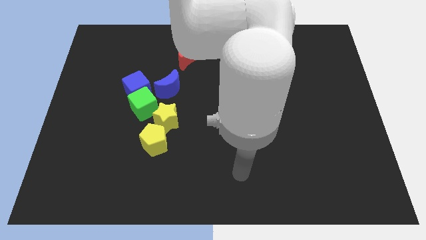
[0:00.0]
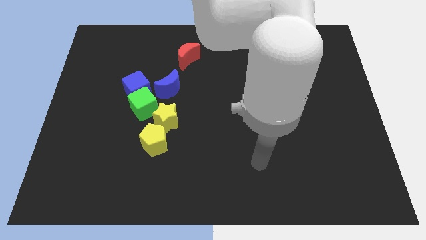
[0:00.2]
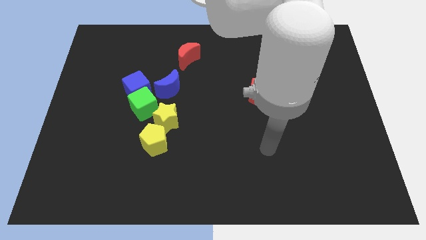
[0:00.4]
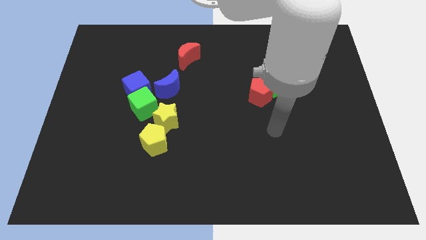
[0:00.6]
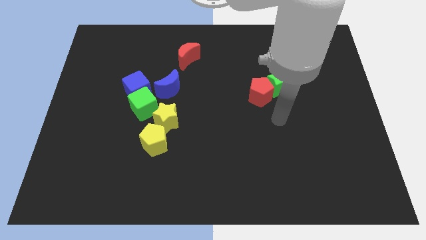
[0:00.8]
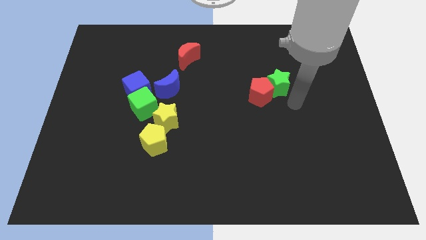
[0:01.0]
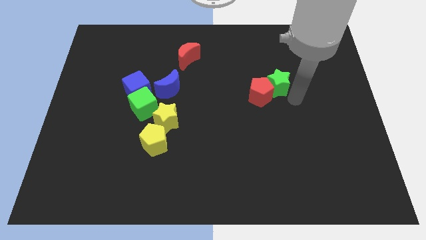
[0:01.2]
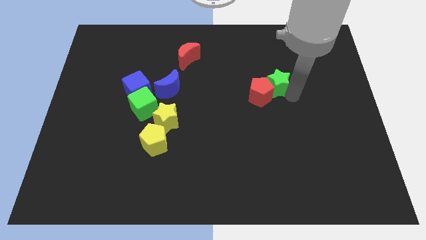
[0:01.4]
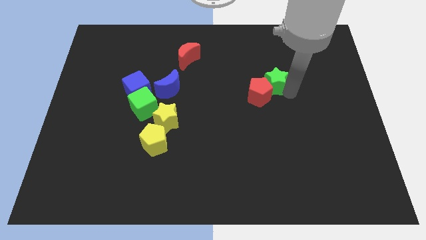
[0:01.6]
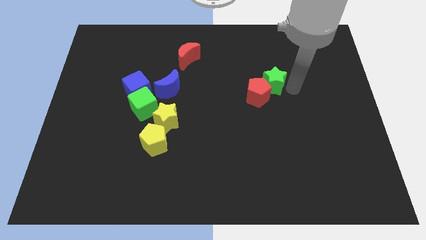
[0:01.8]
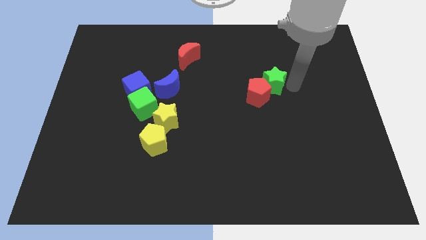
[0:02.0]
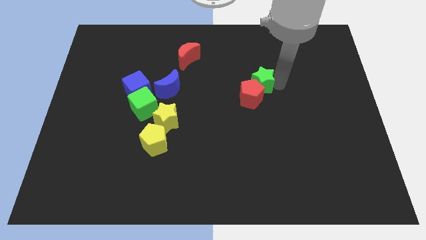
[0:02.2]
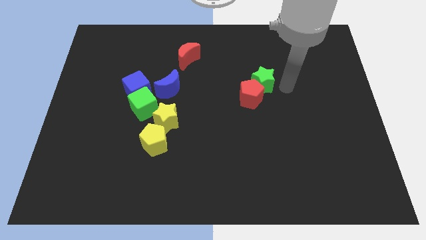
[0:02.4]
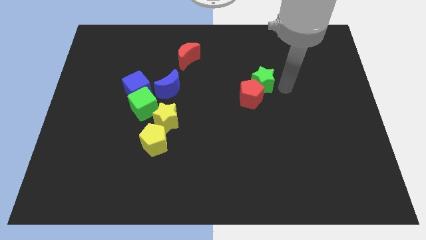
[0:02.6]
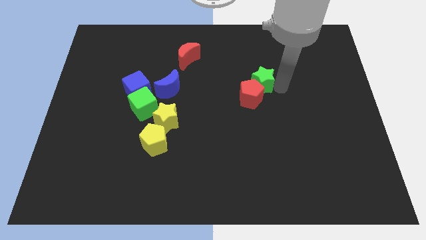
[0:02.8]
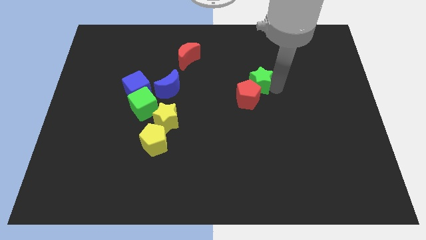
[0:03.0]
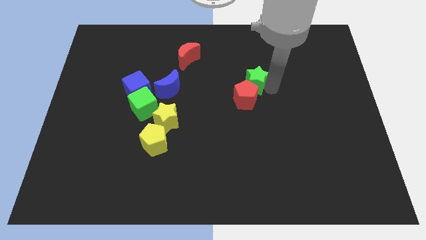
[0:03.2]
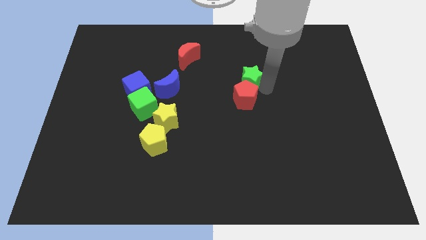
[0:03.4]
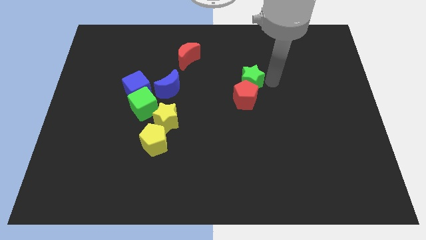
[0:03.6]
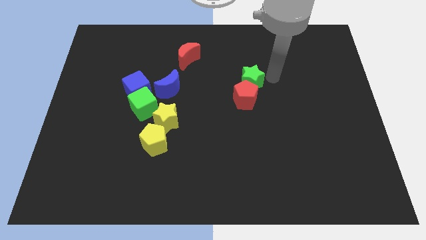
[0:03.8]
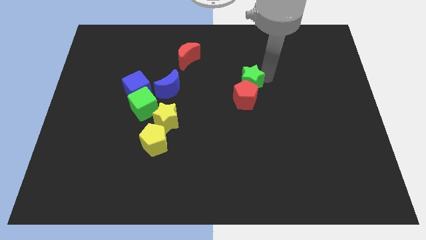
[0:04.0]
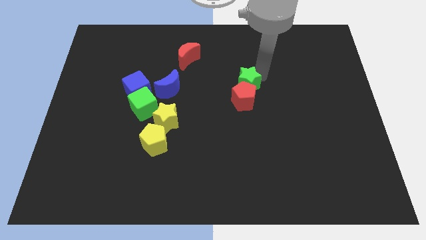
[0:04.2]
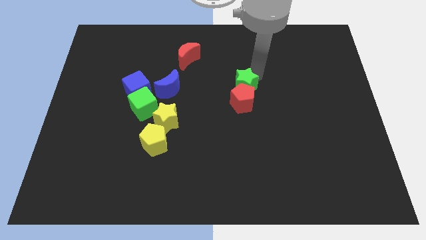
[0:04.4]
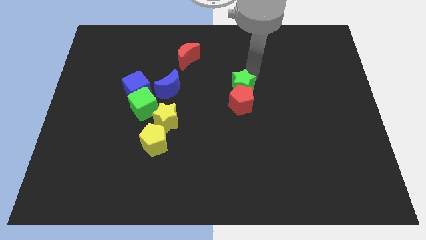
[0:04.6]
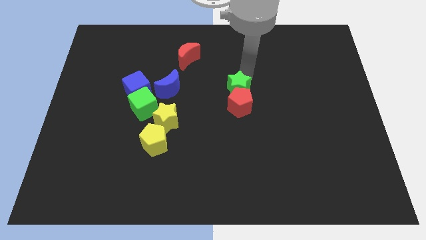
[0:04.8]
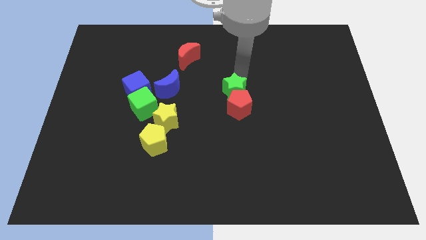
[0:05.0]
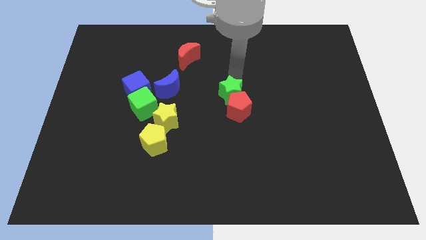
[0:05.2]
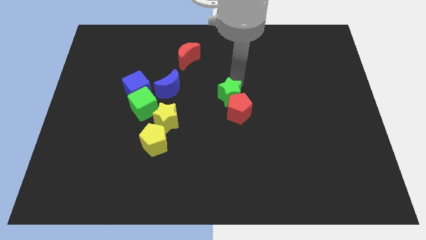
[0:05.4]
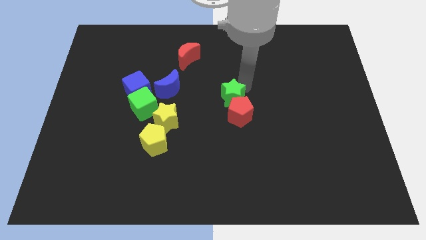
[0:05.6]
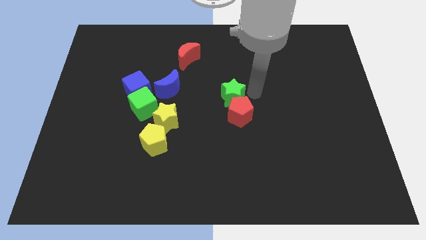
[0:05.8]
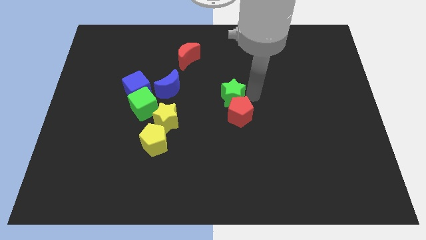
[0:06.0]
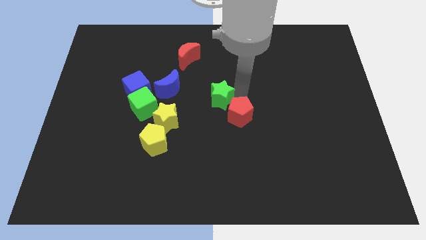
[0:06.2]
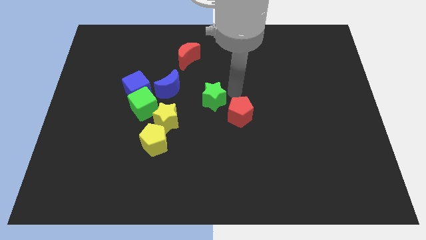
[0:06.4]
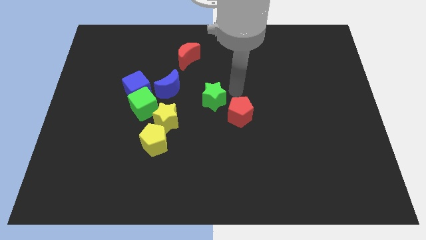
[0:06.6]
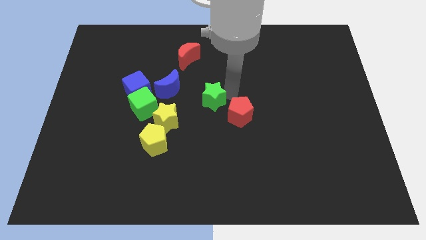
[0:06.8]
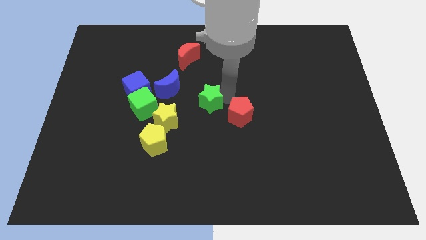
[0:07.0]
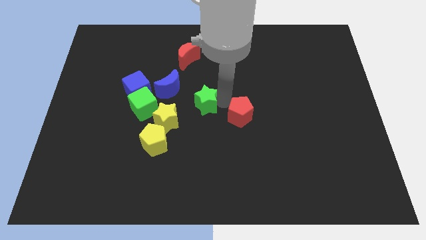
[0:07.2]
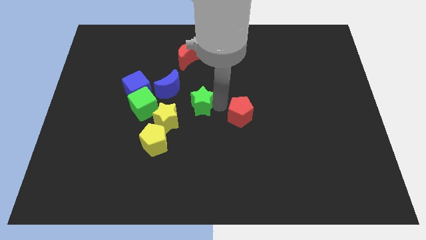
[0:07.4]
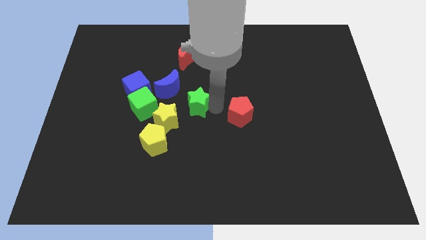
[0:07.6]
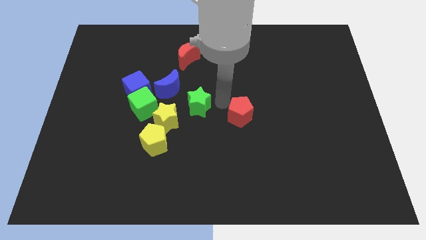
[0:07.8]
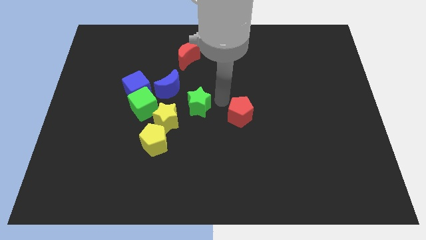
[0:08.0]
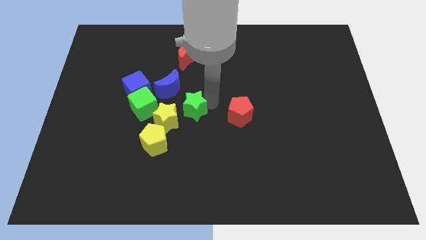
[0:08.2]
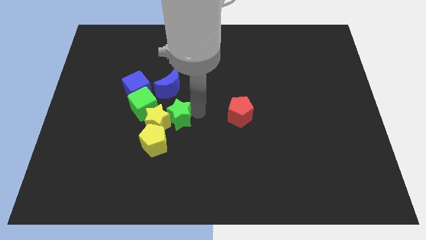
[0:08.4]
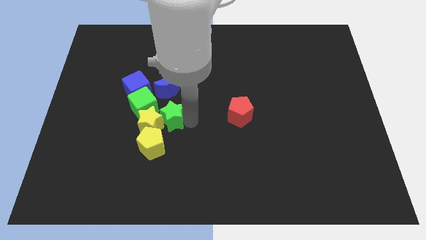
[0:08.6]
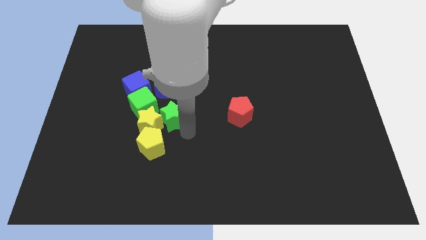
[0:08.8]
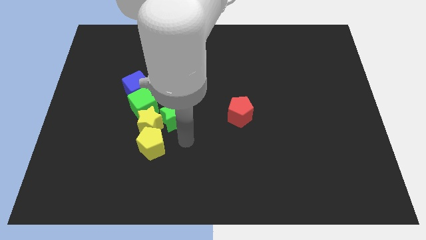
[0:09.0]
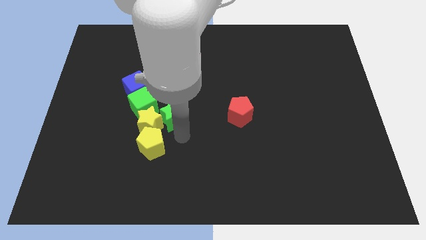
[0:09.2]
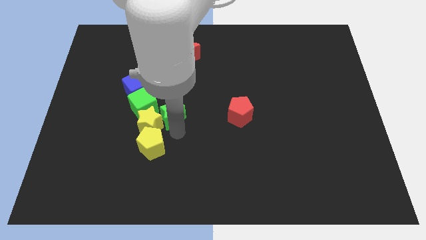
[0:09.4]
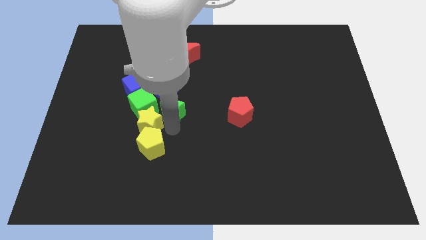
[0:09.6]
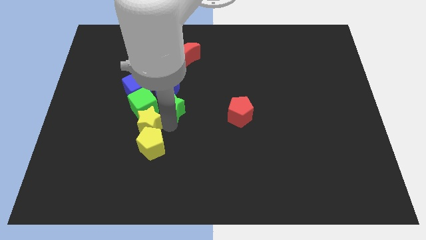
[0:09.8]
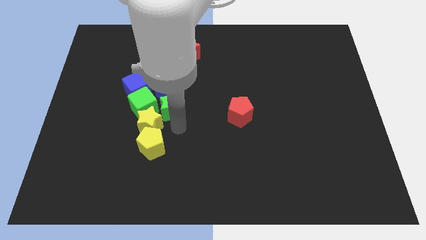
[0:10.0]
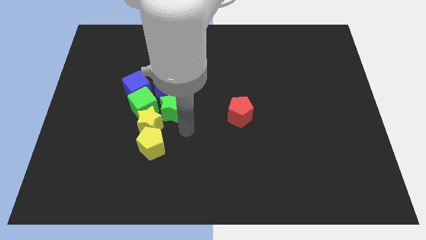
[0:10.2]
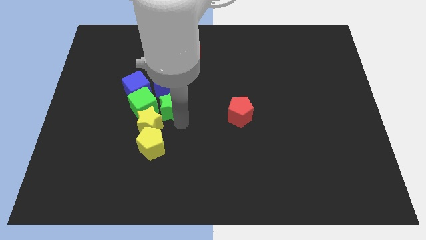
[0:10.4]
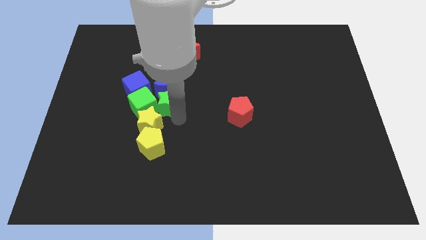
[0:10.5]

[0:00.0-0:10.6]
push the green star close to the green cube

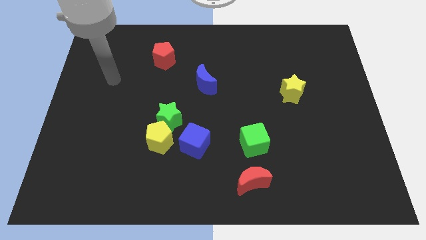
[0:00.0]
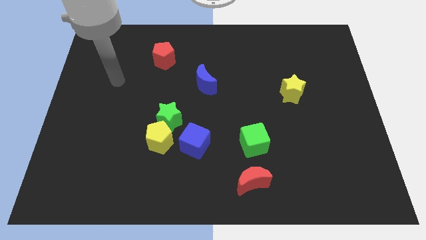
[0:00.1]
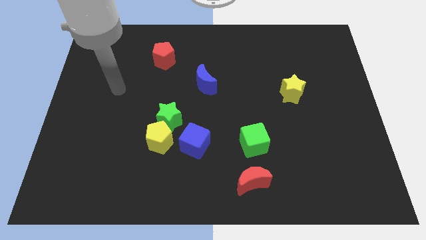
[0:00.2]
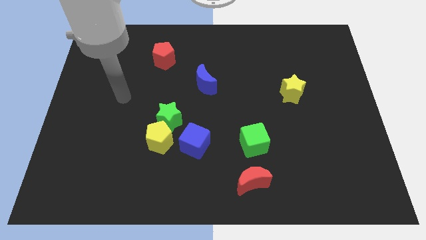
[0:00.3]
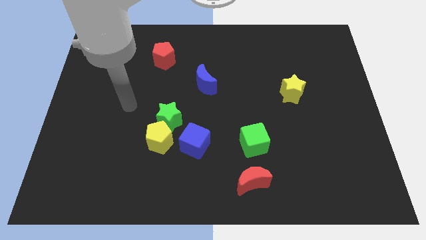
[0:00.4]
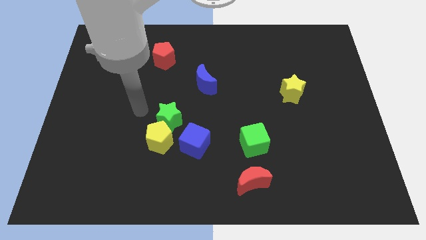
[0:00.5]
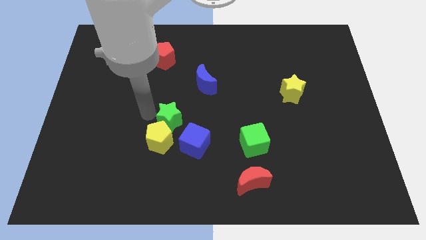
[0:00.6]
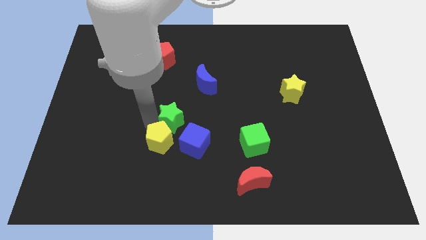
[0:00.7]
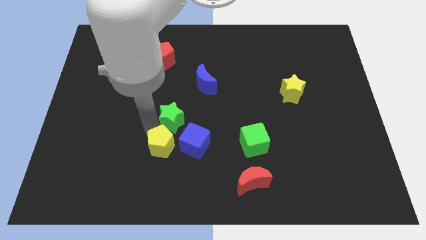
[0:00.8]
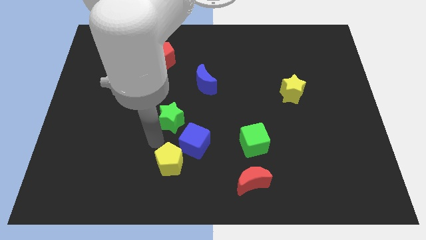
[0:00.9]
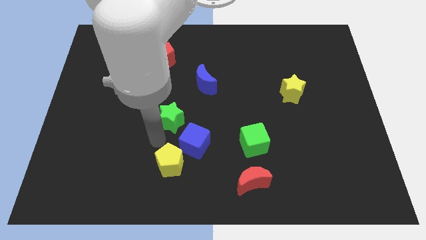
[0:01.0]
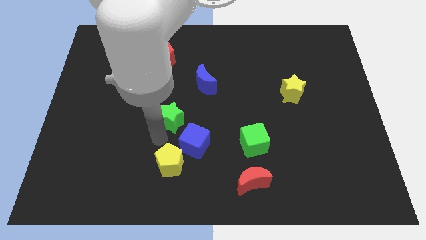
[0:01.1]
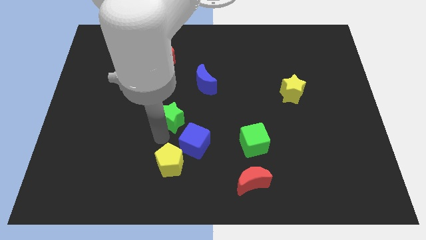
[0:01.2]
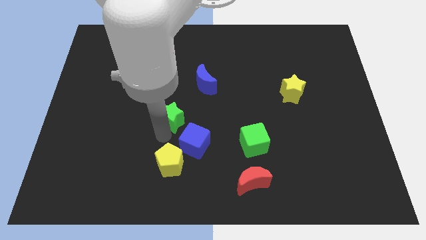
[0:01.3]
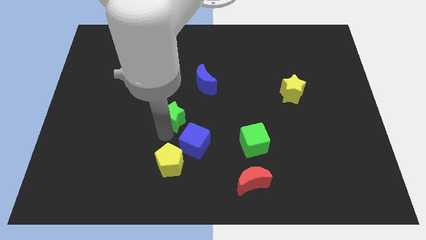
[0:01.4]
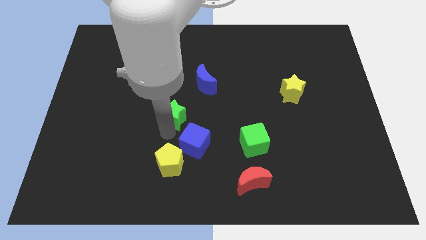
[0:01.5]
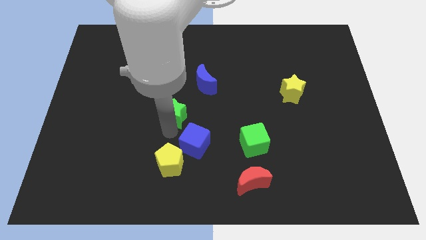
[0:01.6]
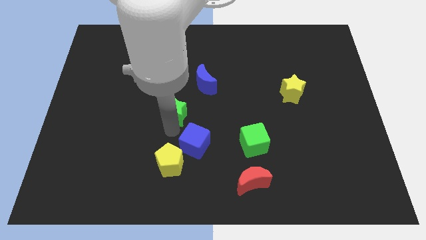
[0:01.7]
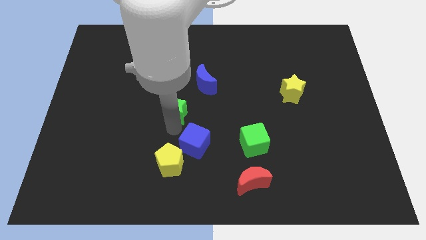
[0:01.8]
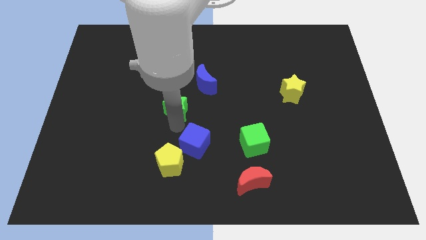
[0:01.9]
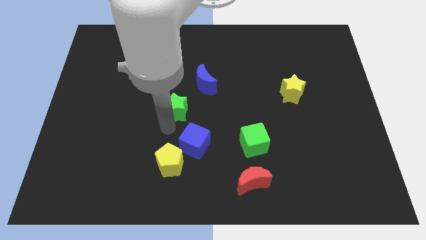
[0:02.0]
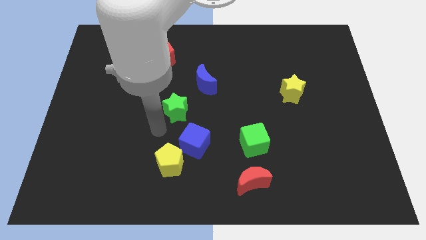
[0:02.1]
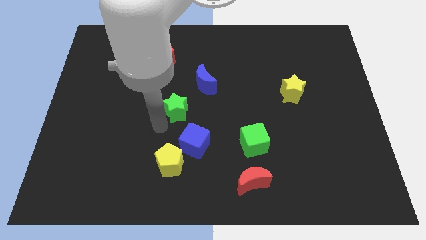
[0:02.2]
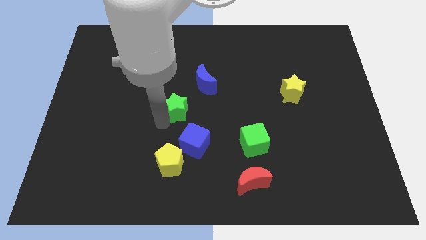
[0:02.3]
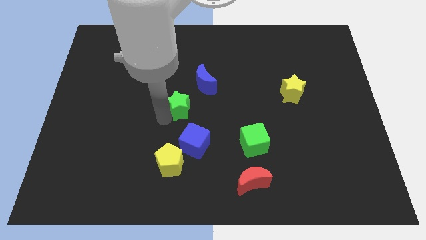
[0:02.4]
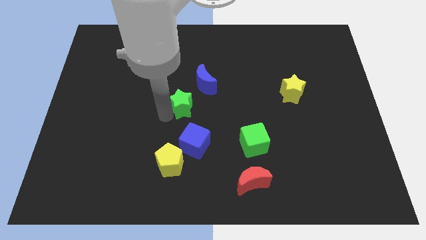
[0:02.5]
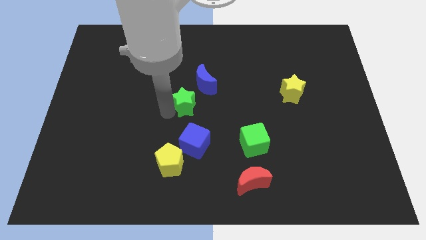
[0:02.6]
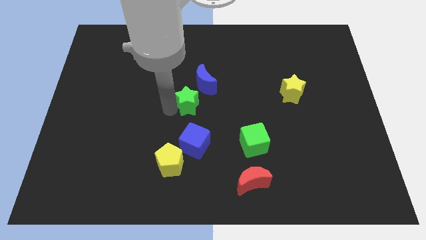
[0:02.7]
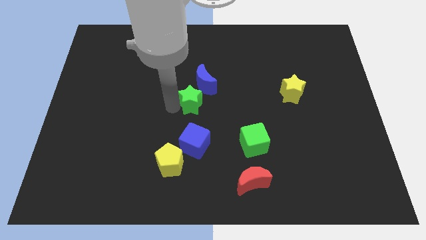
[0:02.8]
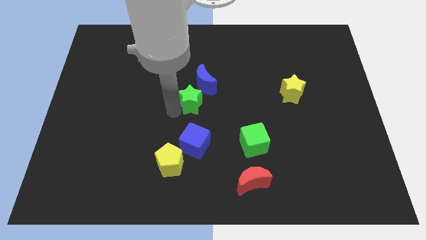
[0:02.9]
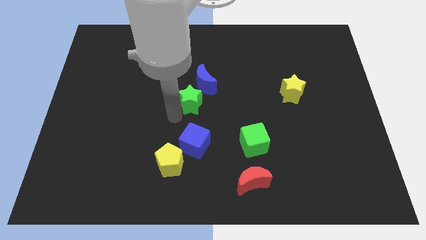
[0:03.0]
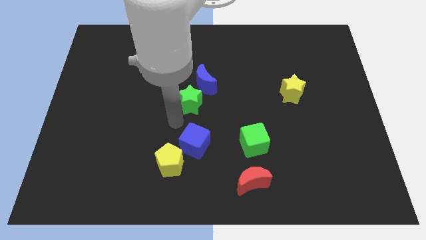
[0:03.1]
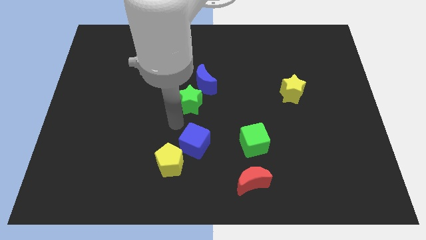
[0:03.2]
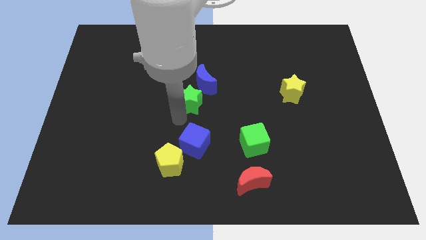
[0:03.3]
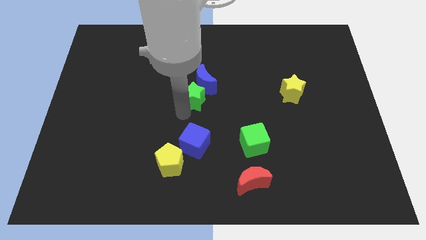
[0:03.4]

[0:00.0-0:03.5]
move the green star to the blue moon
